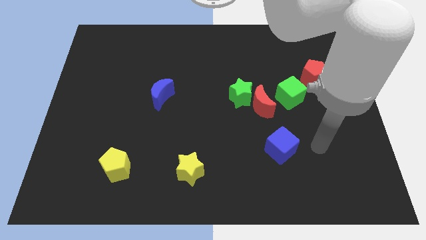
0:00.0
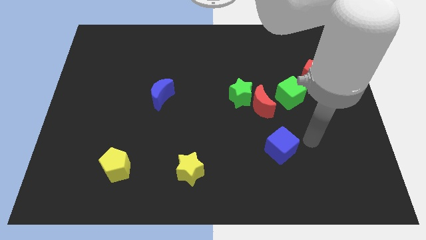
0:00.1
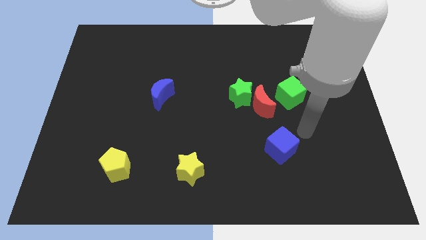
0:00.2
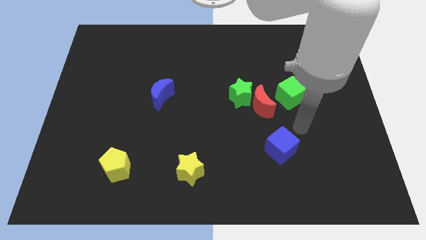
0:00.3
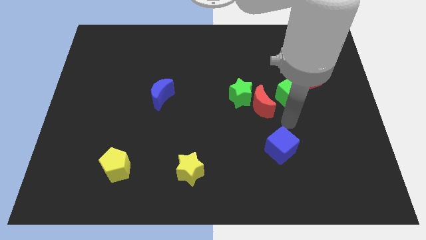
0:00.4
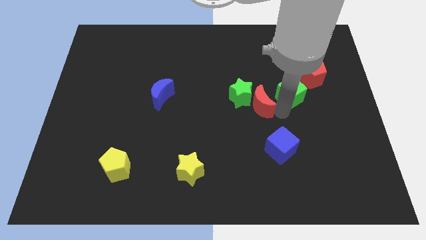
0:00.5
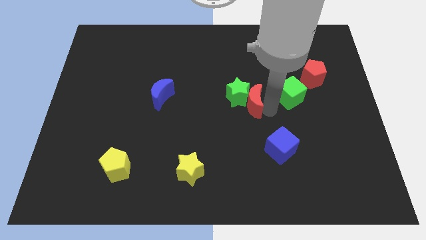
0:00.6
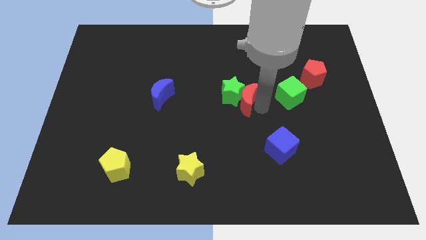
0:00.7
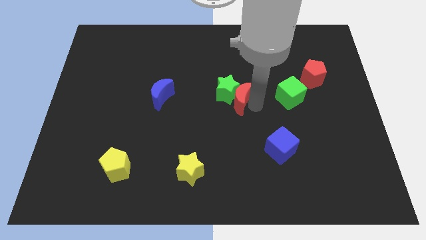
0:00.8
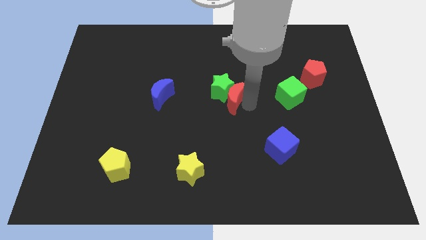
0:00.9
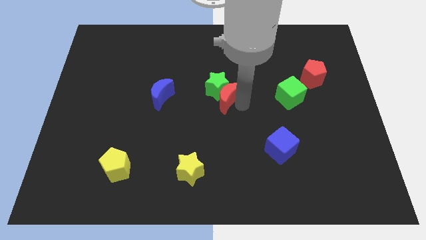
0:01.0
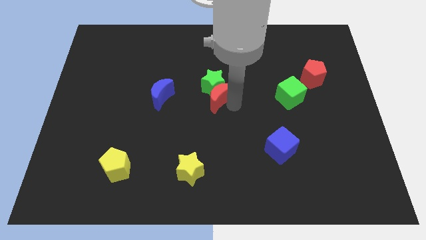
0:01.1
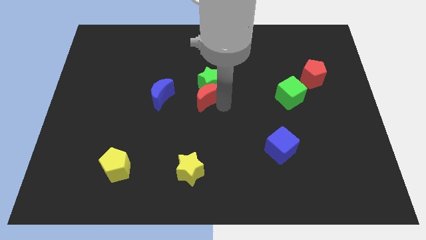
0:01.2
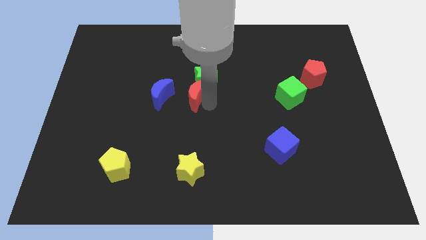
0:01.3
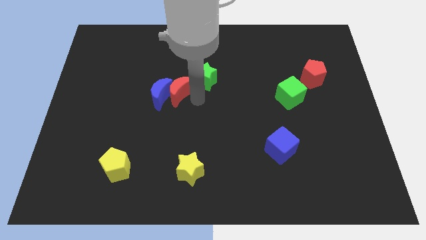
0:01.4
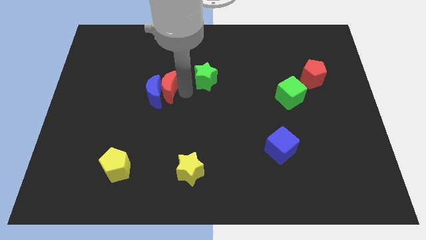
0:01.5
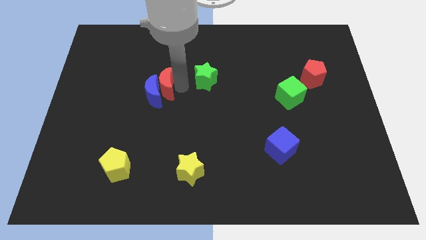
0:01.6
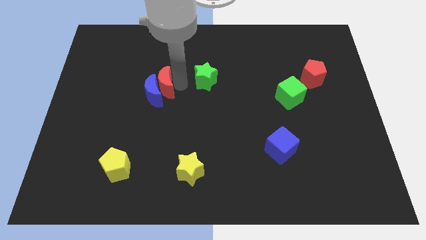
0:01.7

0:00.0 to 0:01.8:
pull the green star apart from the red moon

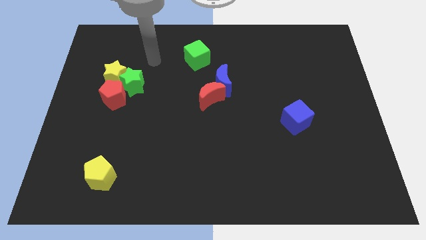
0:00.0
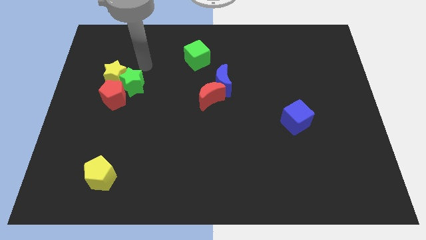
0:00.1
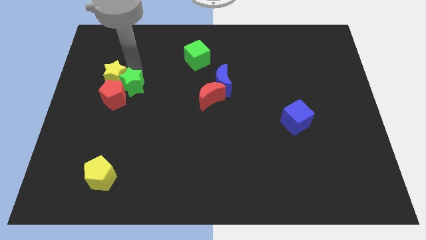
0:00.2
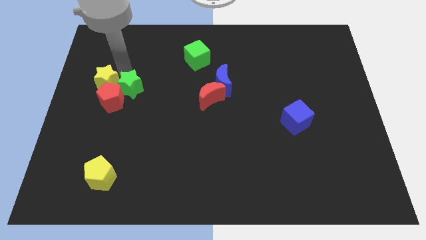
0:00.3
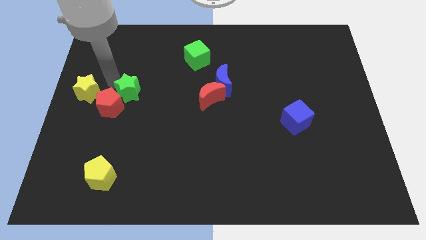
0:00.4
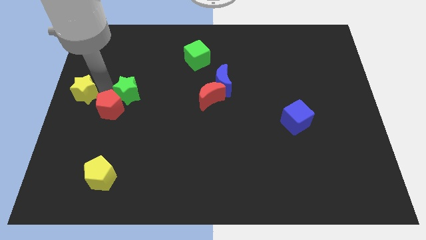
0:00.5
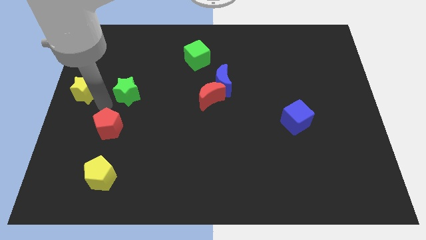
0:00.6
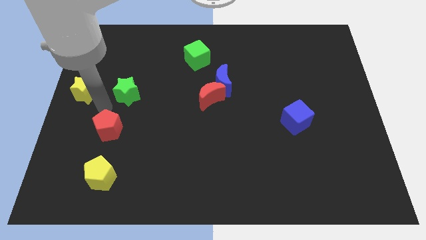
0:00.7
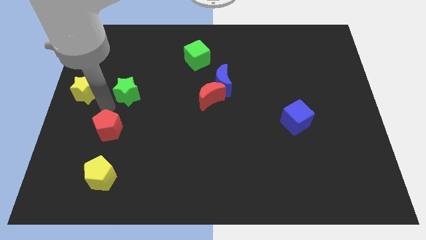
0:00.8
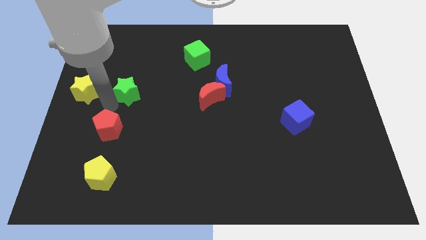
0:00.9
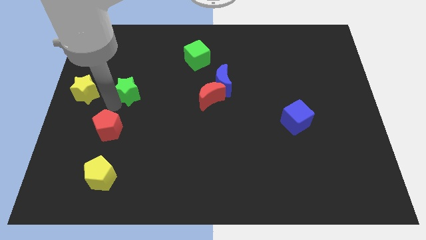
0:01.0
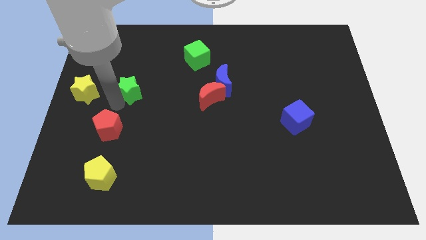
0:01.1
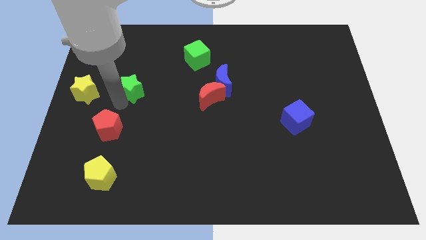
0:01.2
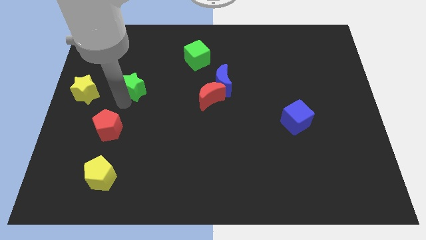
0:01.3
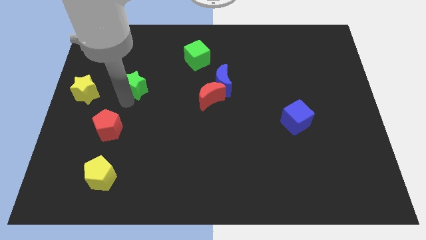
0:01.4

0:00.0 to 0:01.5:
separate the green star from the yellow star and red pentagon

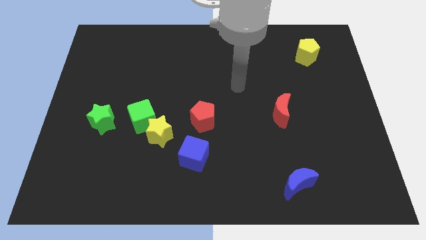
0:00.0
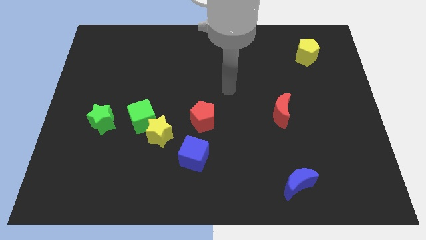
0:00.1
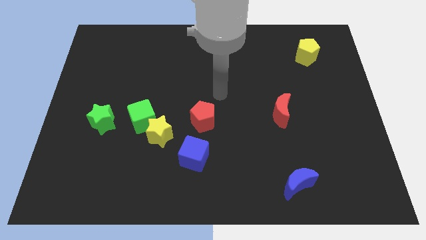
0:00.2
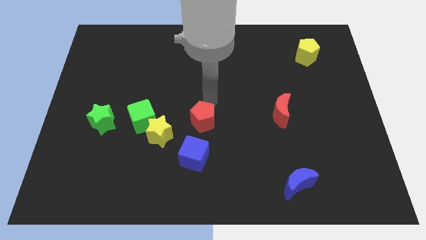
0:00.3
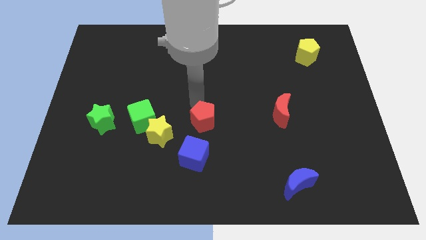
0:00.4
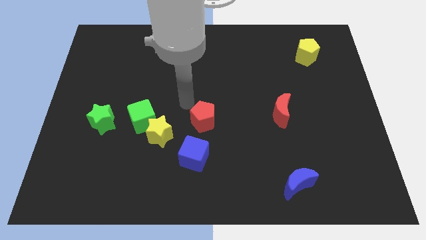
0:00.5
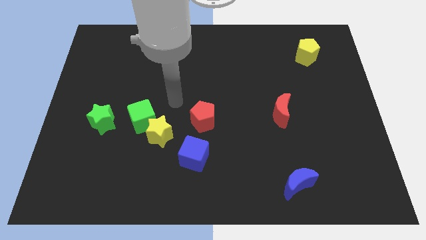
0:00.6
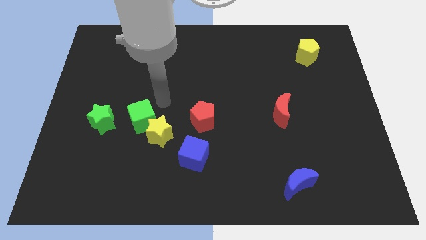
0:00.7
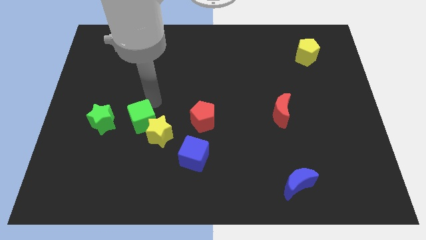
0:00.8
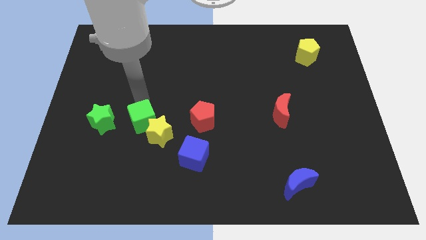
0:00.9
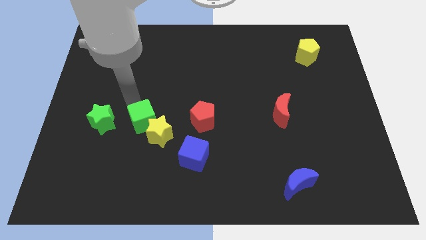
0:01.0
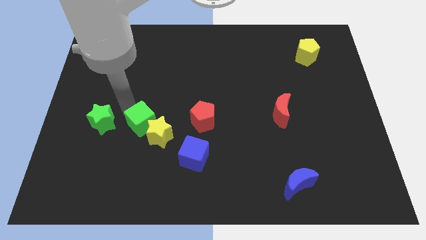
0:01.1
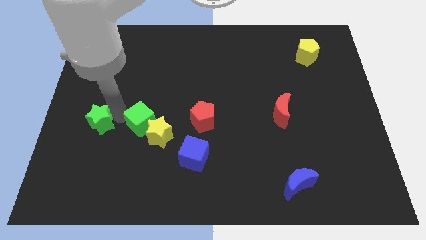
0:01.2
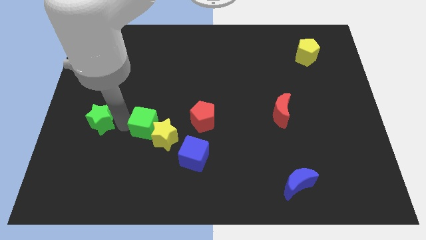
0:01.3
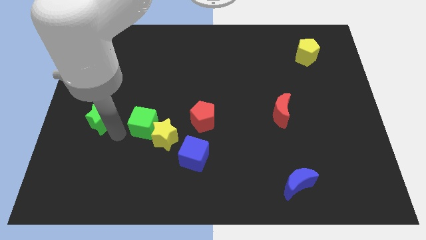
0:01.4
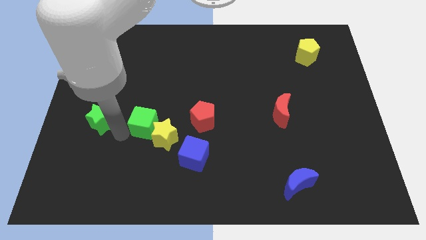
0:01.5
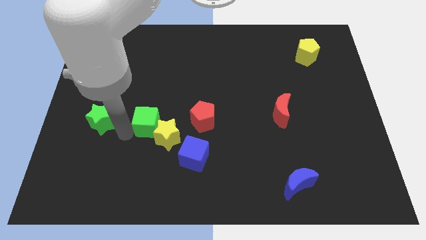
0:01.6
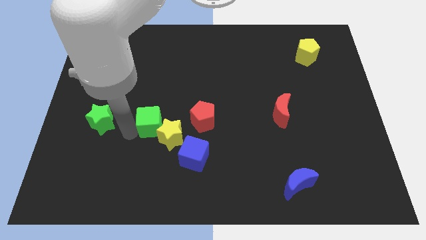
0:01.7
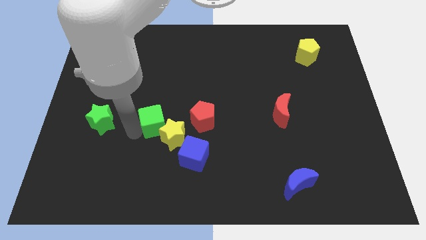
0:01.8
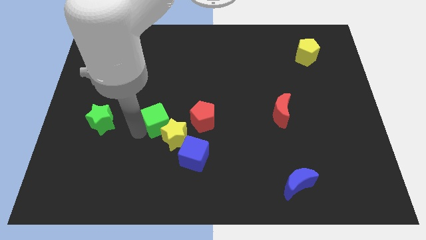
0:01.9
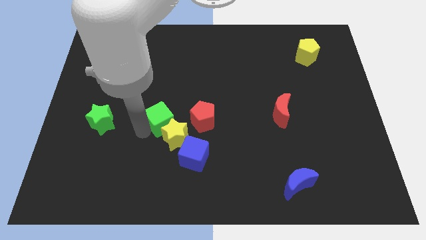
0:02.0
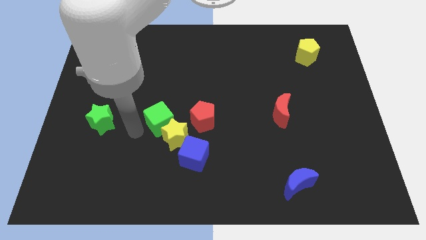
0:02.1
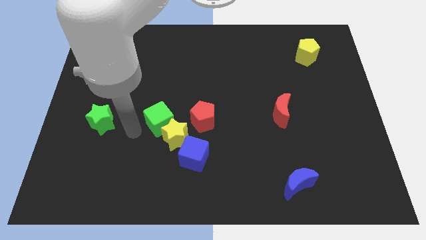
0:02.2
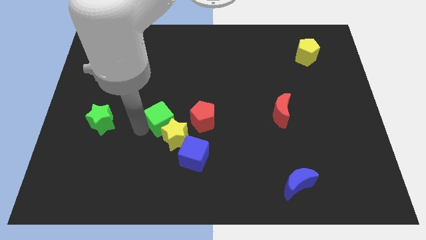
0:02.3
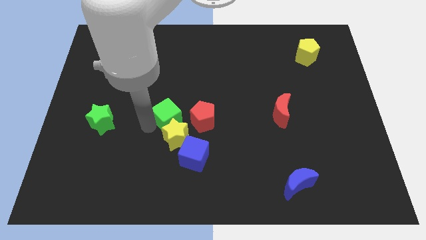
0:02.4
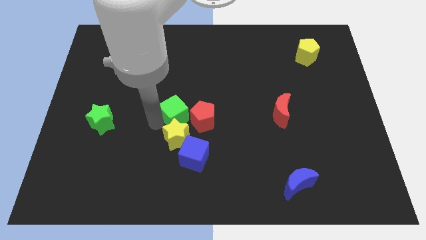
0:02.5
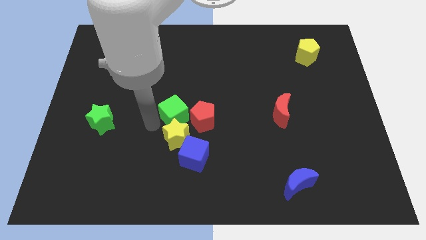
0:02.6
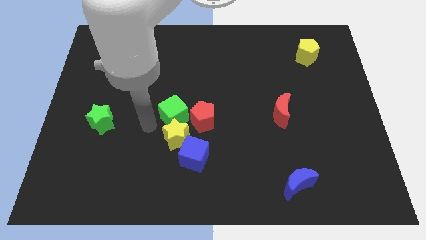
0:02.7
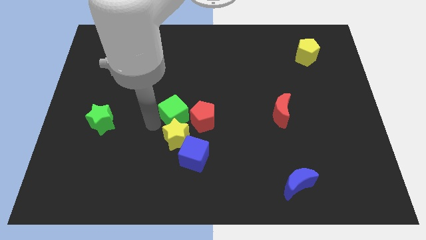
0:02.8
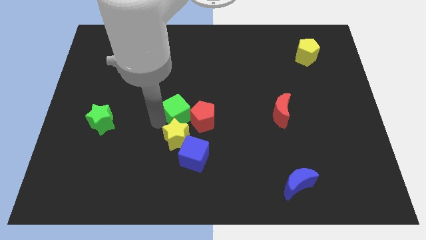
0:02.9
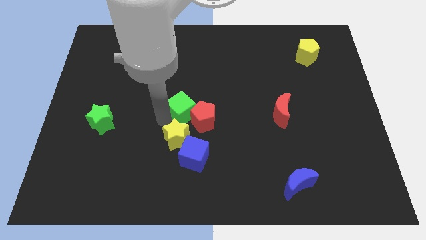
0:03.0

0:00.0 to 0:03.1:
separate the green cube from the yellow star and green star

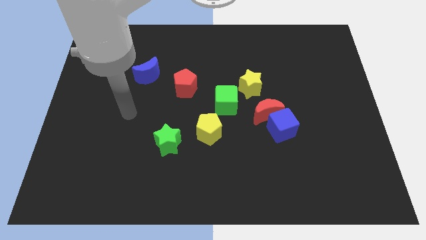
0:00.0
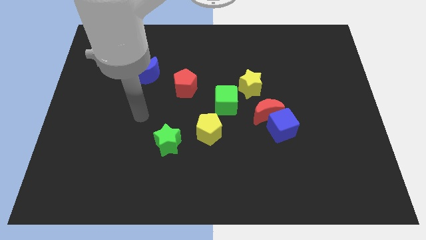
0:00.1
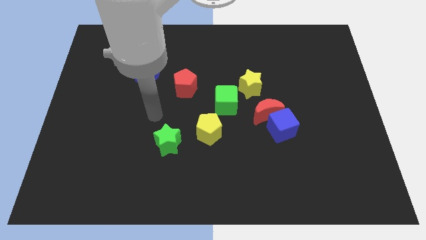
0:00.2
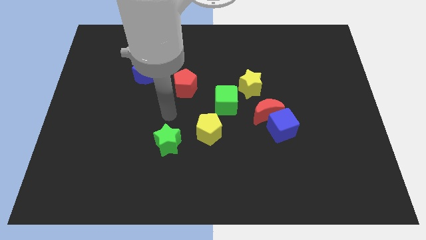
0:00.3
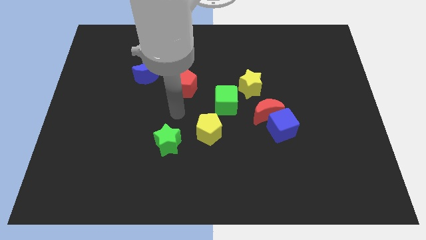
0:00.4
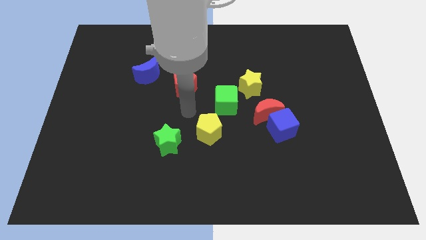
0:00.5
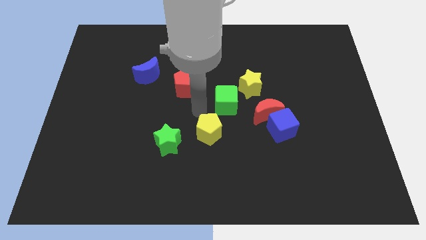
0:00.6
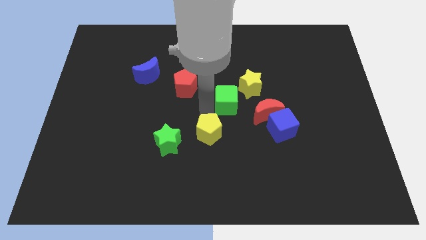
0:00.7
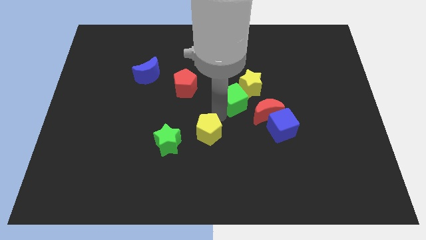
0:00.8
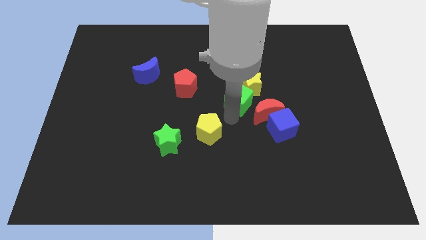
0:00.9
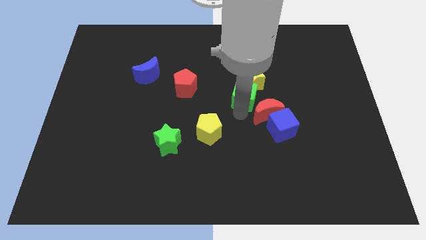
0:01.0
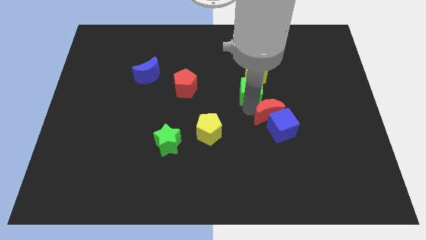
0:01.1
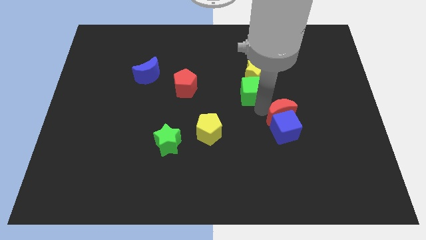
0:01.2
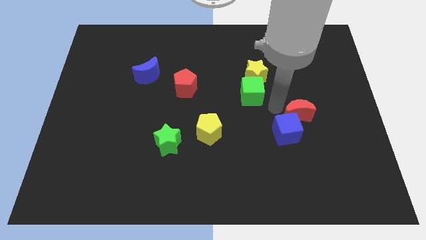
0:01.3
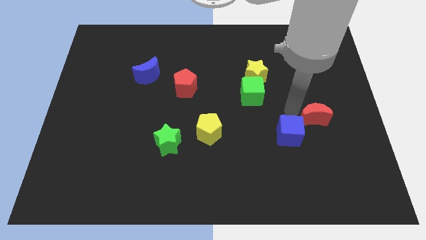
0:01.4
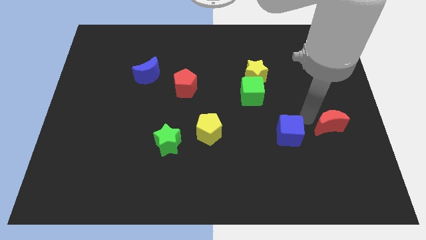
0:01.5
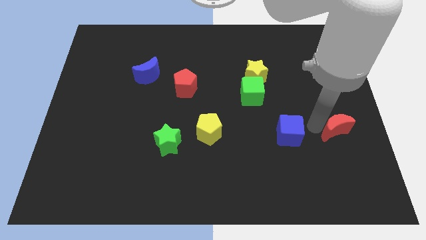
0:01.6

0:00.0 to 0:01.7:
move the blue cube away from the red moon

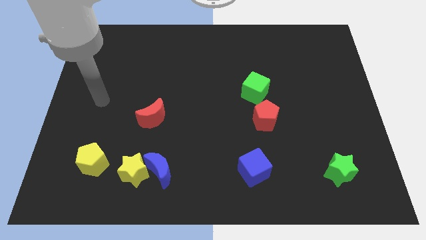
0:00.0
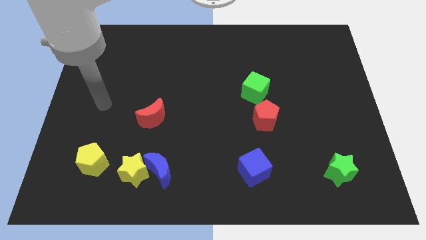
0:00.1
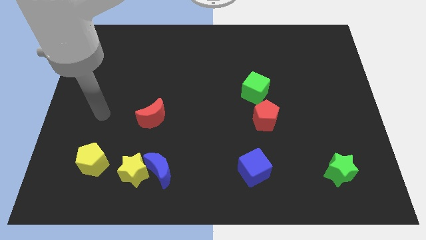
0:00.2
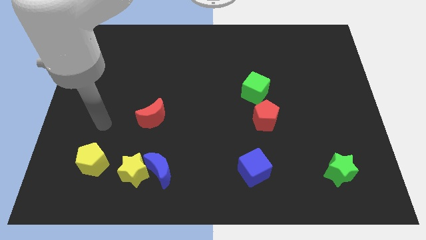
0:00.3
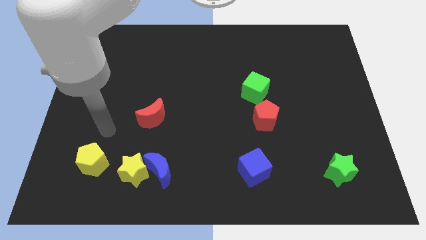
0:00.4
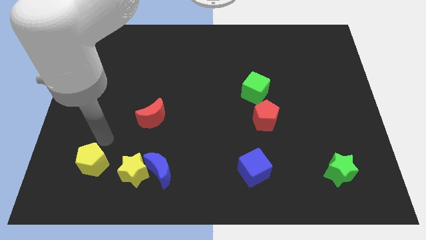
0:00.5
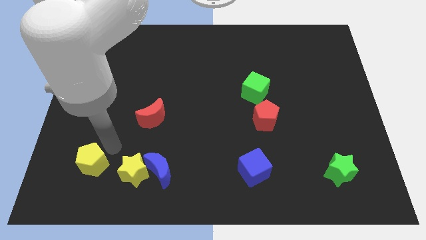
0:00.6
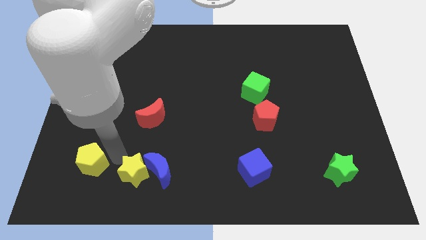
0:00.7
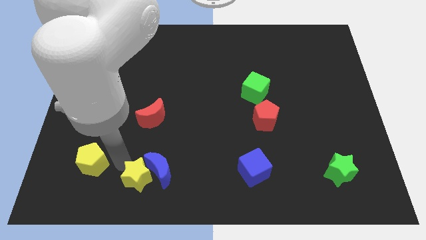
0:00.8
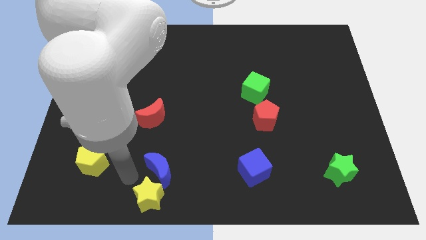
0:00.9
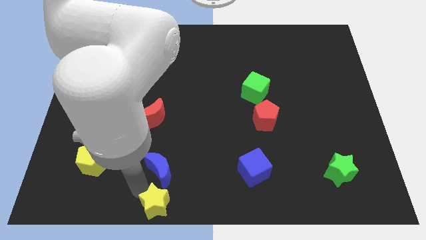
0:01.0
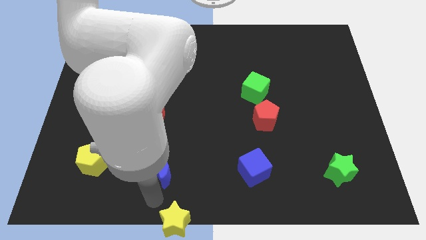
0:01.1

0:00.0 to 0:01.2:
pull the blue moon apart from the yellow star
